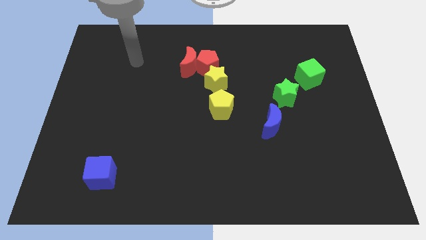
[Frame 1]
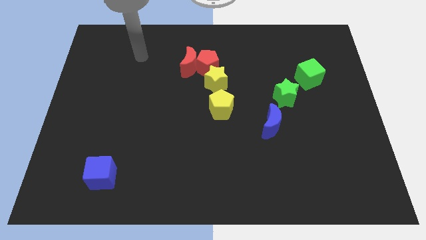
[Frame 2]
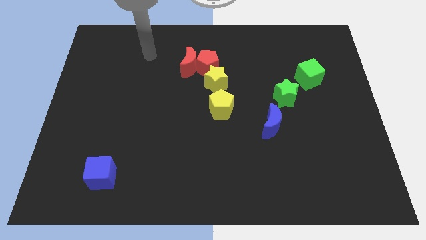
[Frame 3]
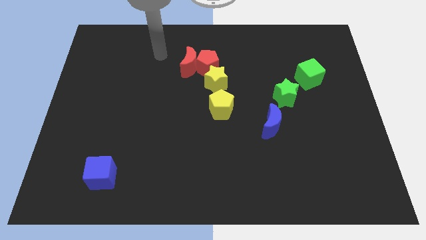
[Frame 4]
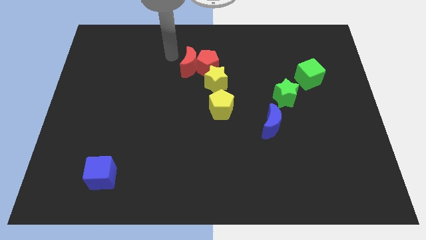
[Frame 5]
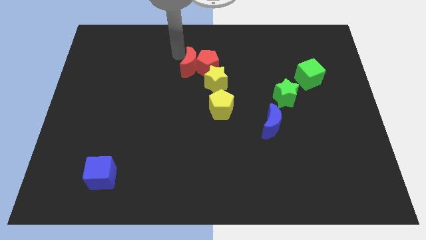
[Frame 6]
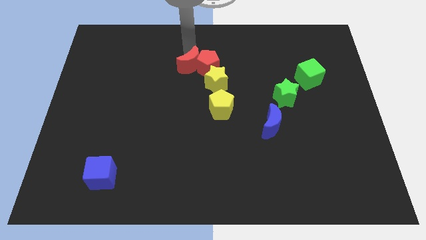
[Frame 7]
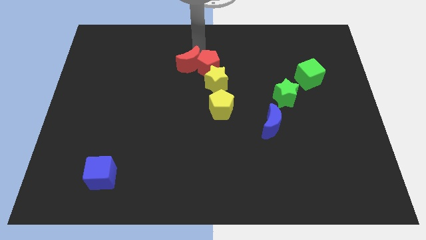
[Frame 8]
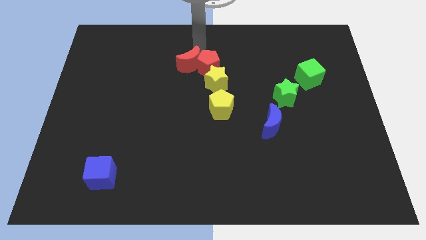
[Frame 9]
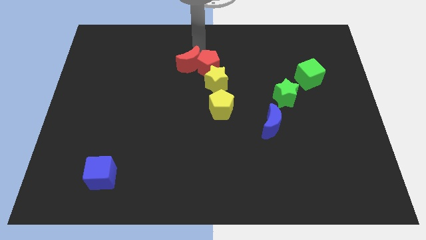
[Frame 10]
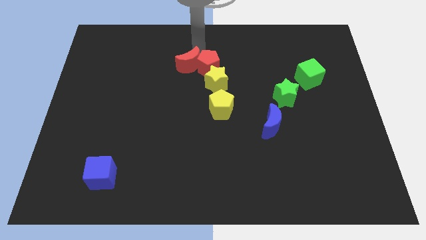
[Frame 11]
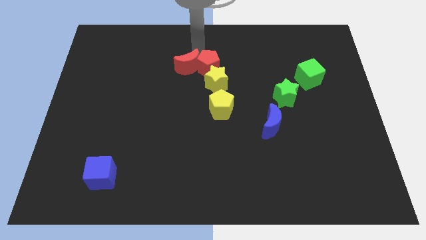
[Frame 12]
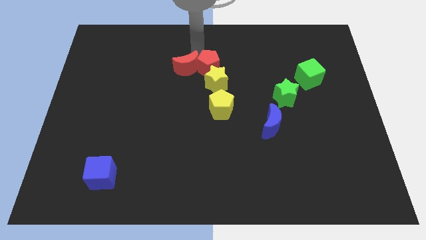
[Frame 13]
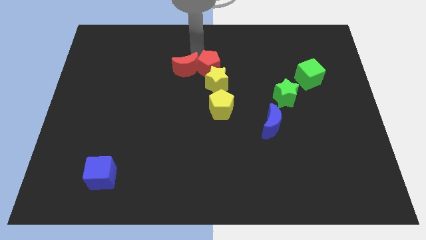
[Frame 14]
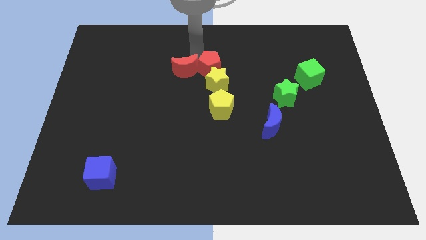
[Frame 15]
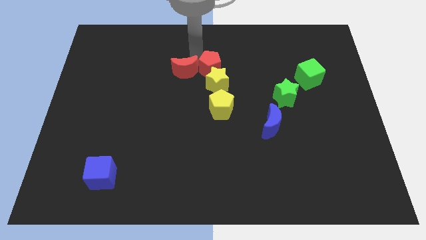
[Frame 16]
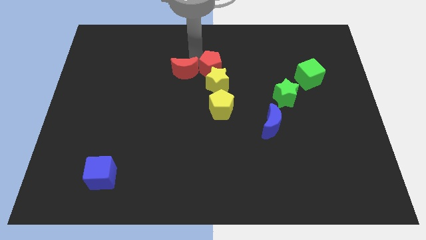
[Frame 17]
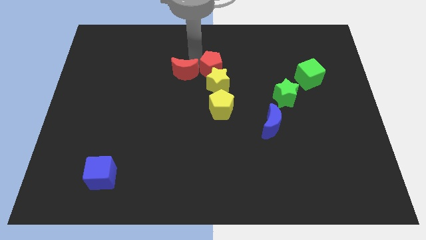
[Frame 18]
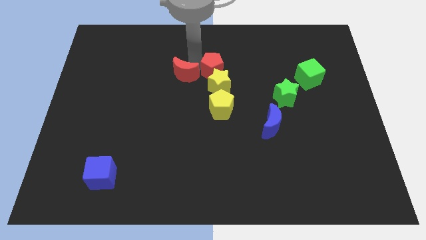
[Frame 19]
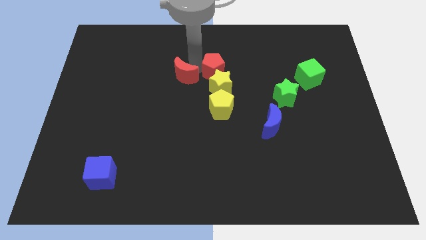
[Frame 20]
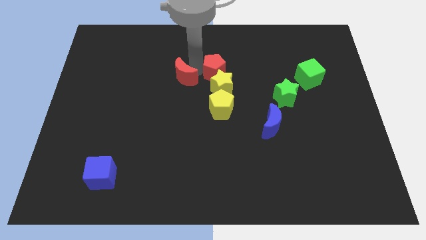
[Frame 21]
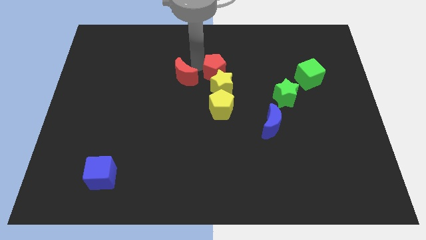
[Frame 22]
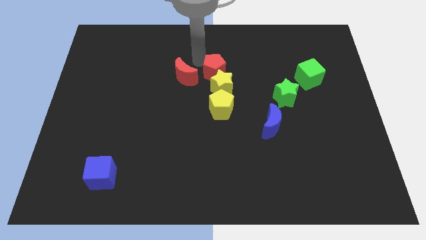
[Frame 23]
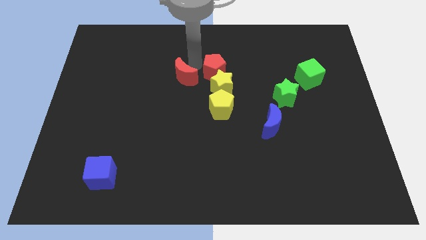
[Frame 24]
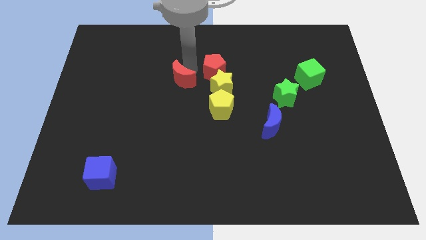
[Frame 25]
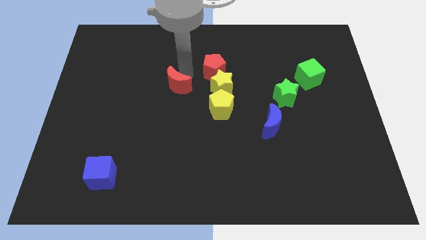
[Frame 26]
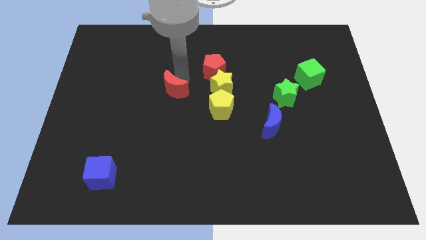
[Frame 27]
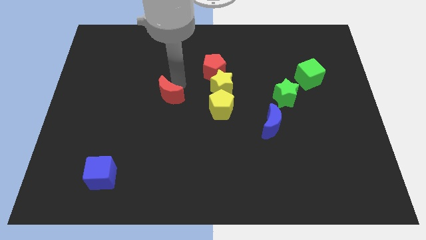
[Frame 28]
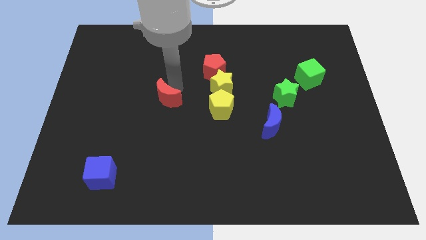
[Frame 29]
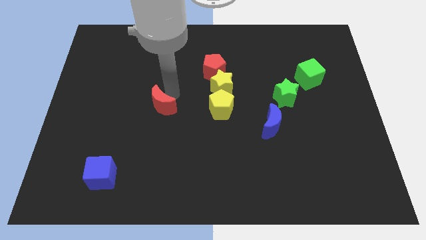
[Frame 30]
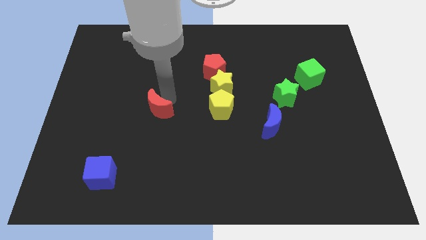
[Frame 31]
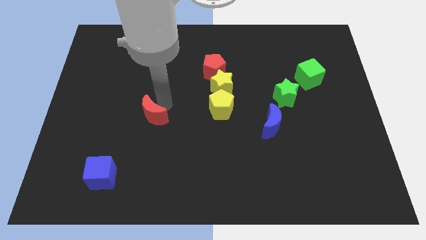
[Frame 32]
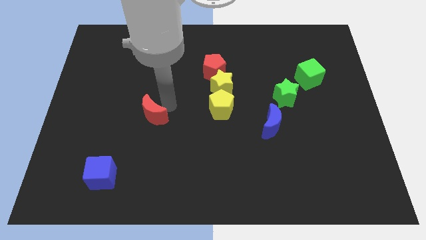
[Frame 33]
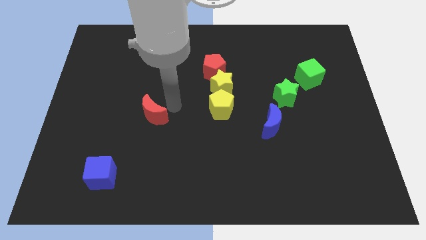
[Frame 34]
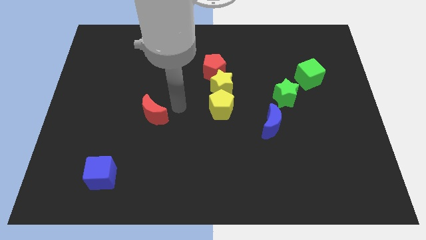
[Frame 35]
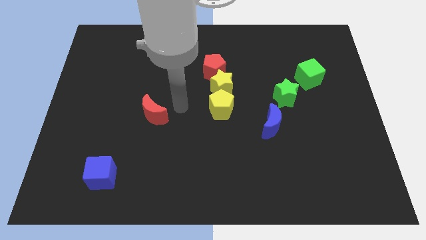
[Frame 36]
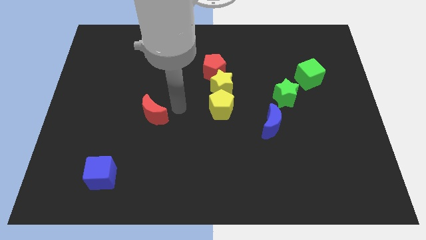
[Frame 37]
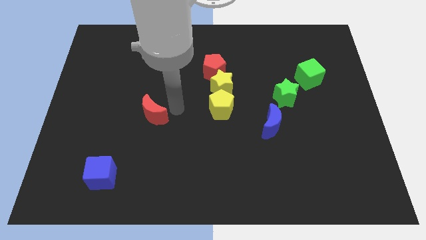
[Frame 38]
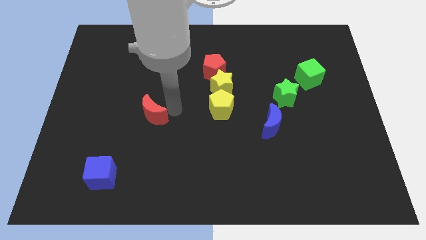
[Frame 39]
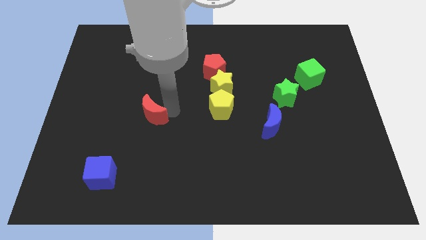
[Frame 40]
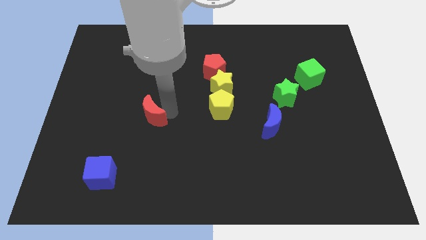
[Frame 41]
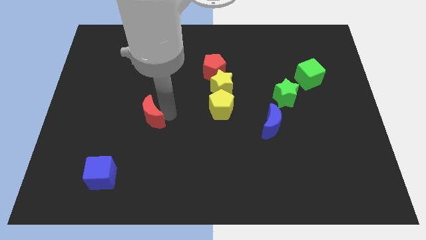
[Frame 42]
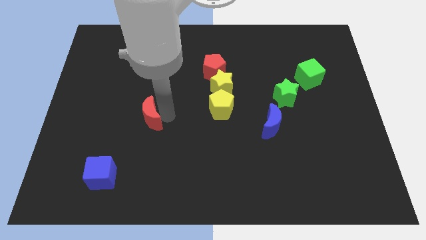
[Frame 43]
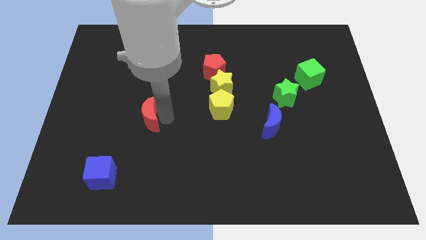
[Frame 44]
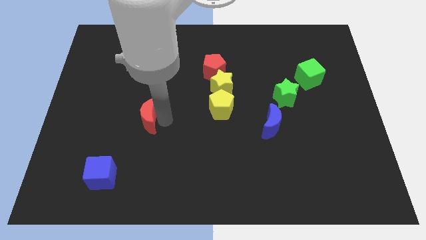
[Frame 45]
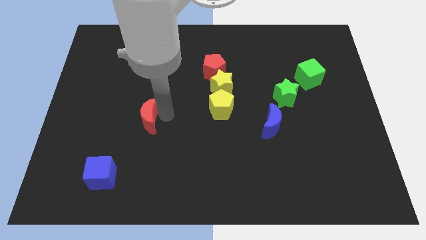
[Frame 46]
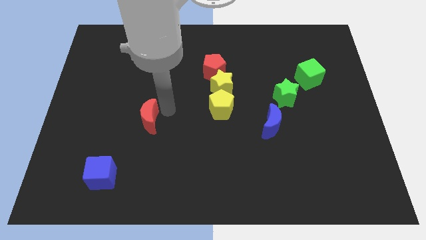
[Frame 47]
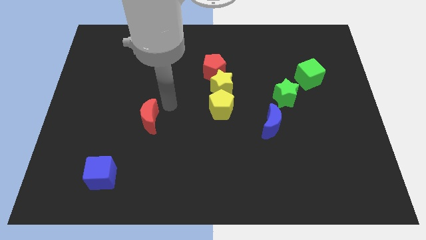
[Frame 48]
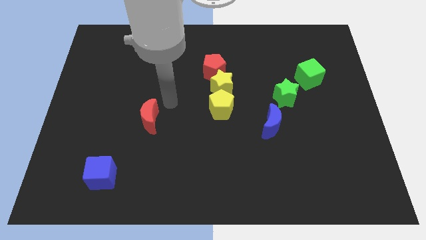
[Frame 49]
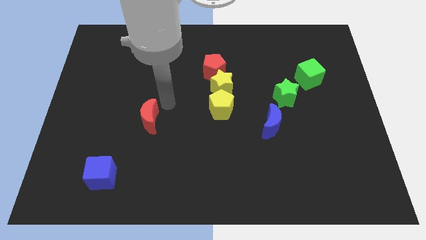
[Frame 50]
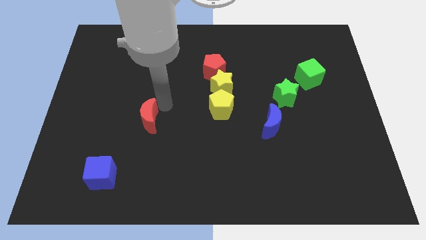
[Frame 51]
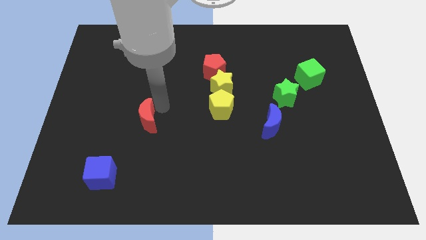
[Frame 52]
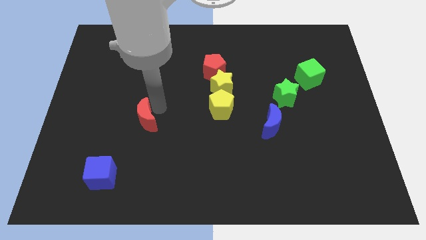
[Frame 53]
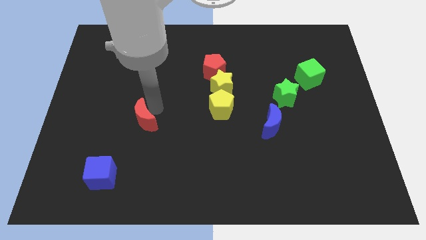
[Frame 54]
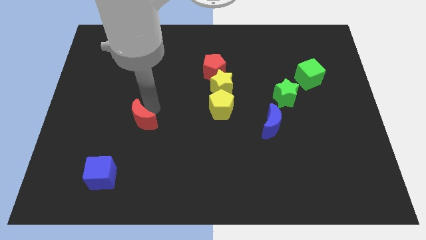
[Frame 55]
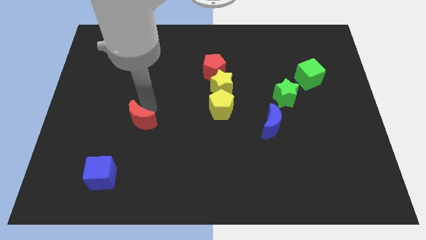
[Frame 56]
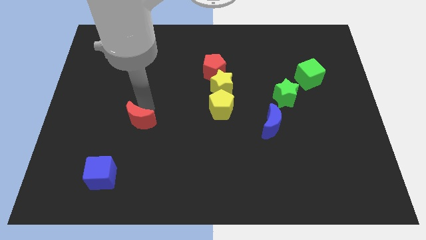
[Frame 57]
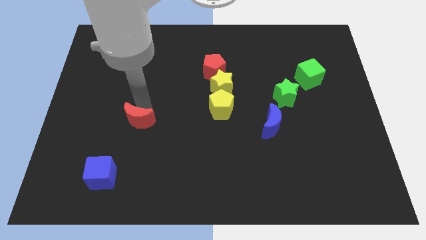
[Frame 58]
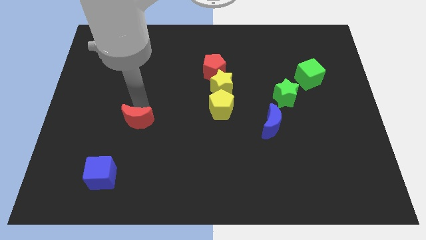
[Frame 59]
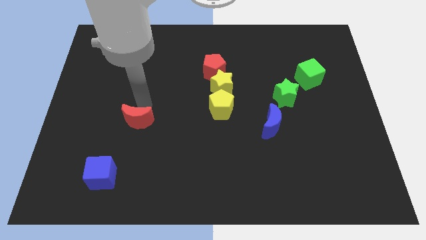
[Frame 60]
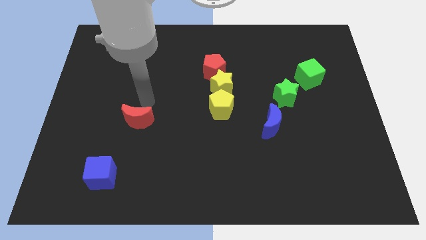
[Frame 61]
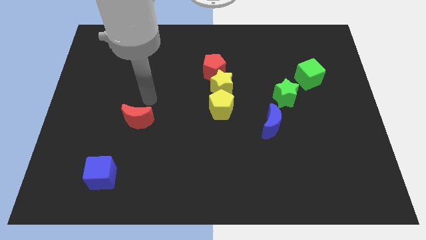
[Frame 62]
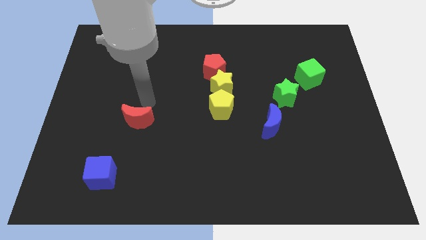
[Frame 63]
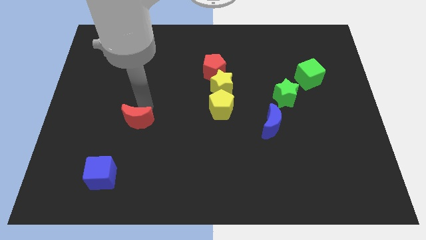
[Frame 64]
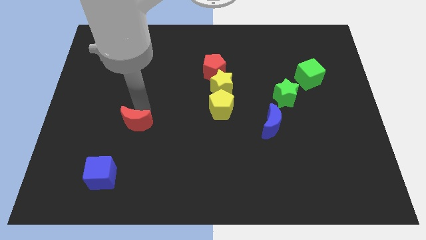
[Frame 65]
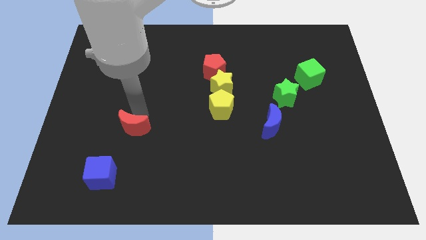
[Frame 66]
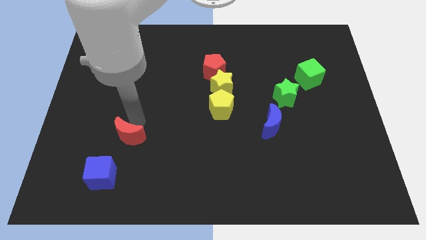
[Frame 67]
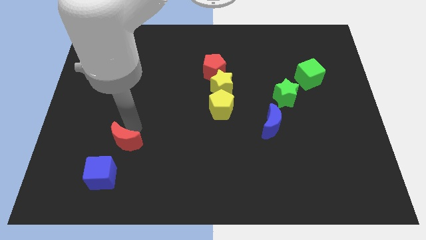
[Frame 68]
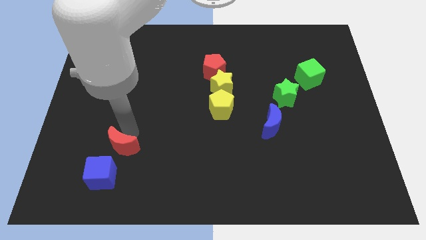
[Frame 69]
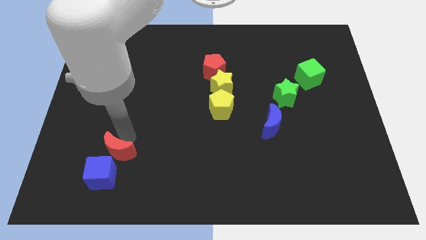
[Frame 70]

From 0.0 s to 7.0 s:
move the red moon towards the blue cube
